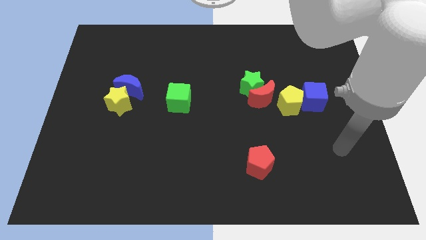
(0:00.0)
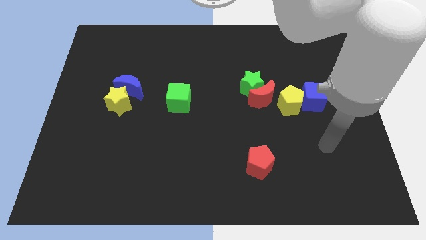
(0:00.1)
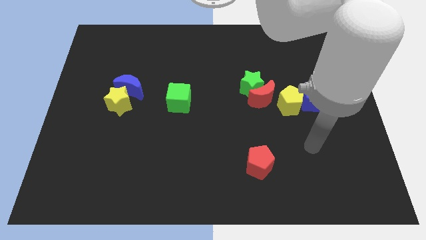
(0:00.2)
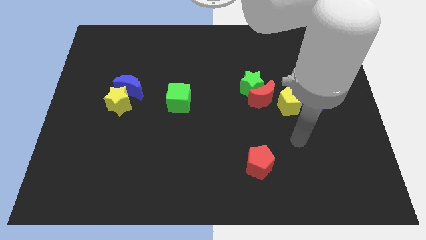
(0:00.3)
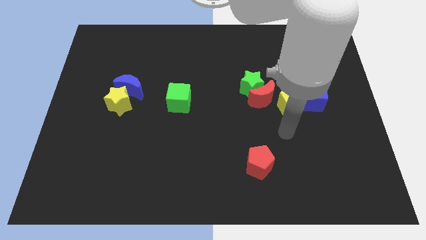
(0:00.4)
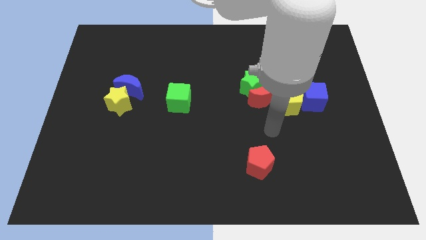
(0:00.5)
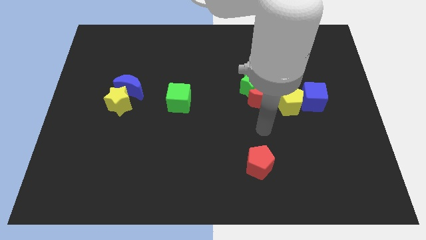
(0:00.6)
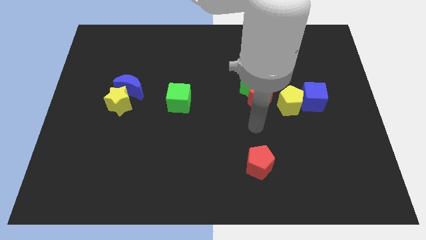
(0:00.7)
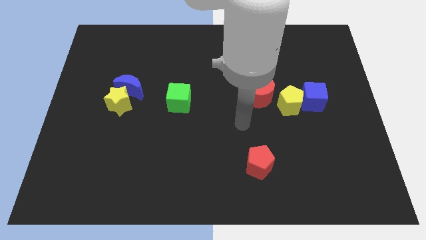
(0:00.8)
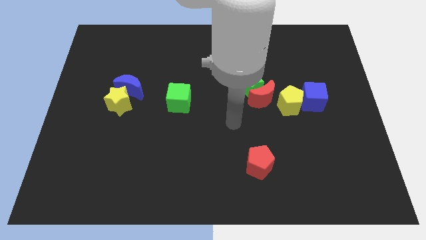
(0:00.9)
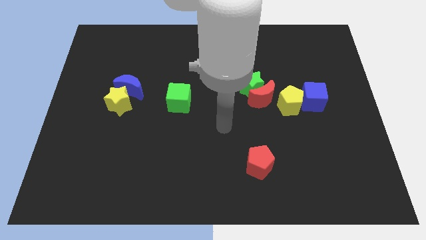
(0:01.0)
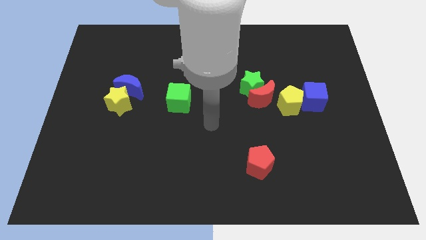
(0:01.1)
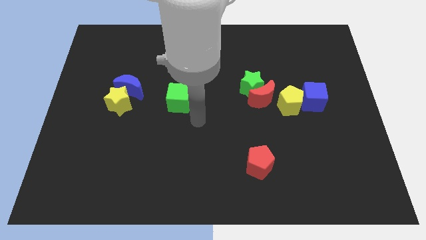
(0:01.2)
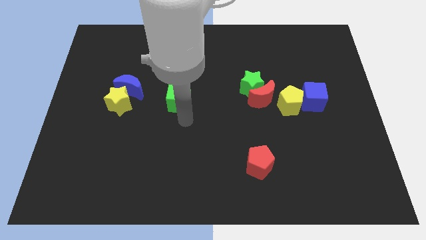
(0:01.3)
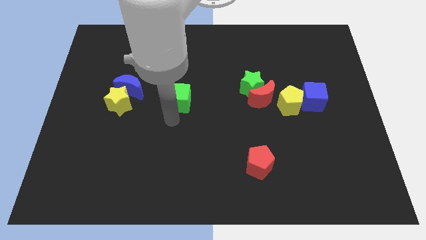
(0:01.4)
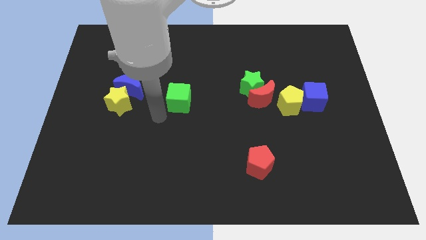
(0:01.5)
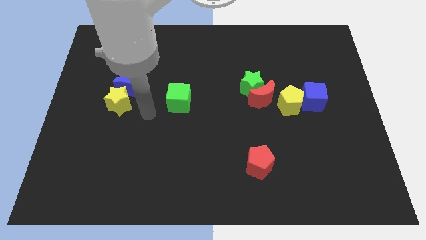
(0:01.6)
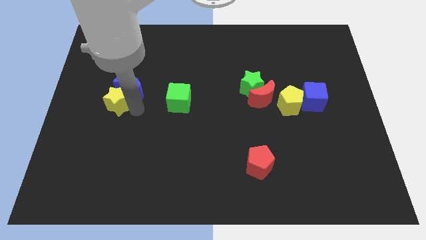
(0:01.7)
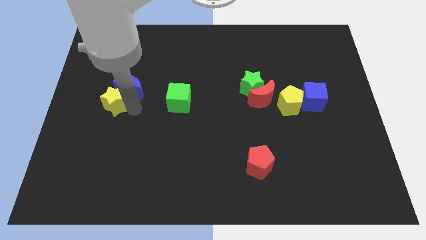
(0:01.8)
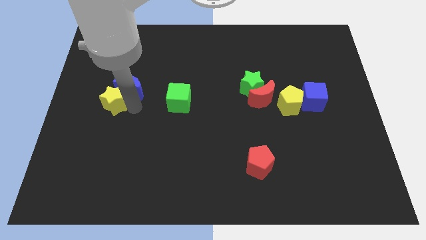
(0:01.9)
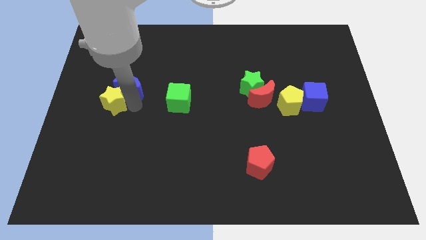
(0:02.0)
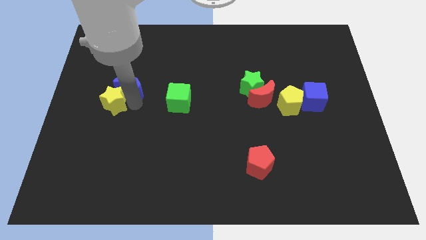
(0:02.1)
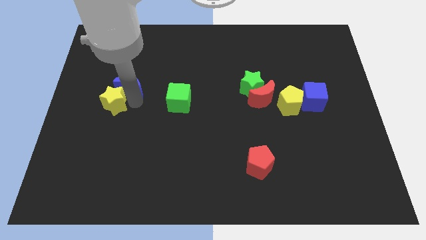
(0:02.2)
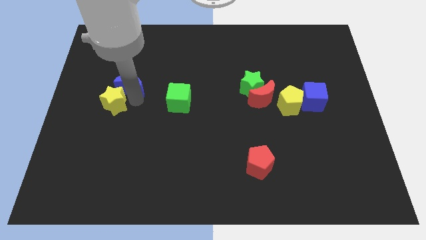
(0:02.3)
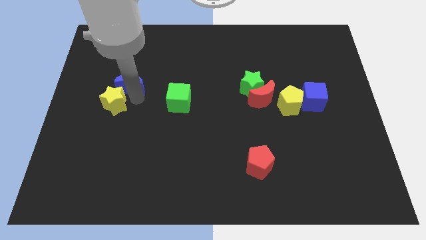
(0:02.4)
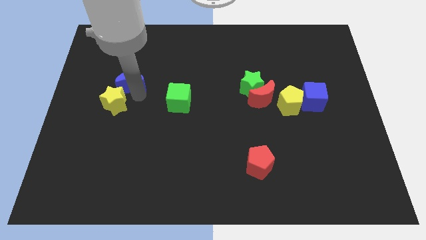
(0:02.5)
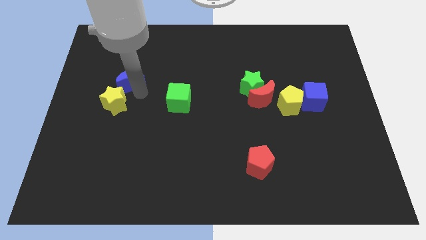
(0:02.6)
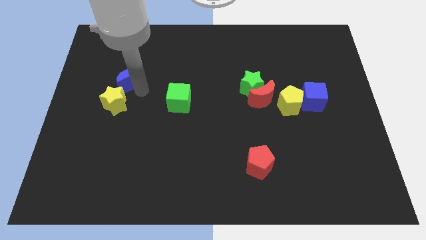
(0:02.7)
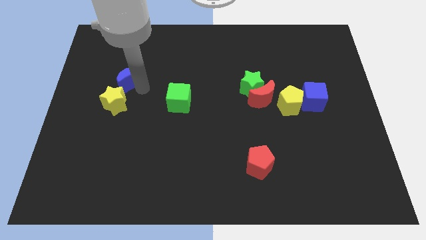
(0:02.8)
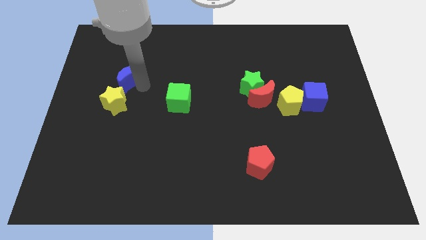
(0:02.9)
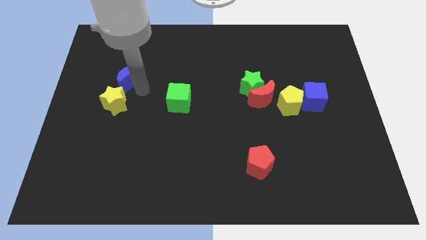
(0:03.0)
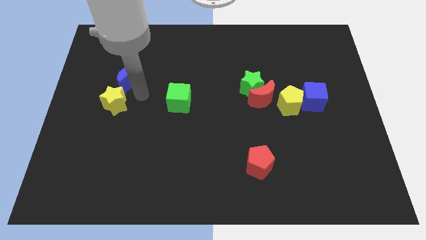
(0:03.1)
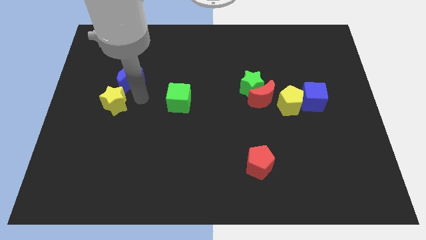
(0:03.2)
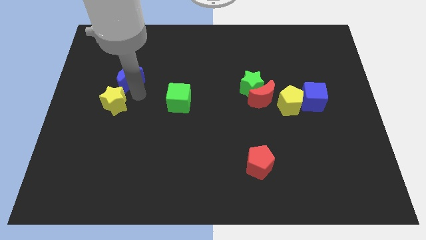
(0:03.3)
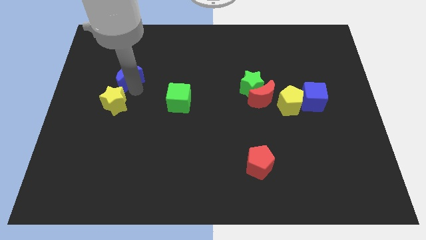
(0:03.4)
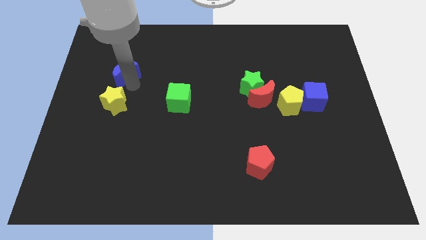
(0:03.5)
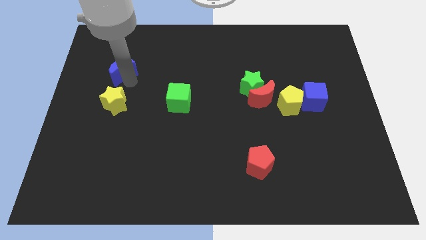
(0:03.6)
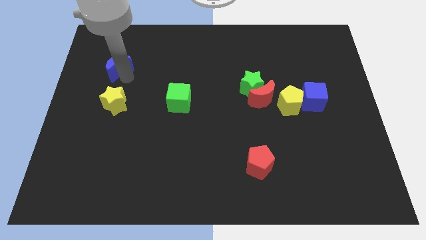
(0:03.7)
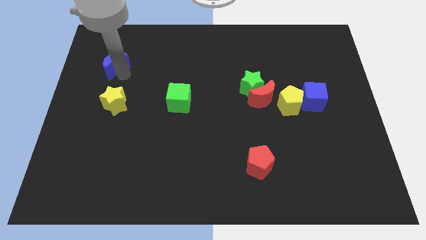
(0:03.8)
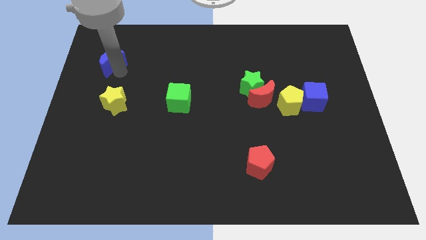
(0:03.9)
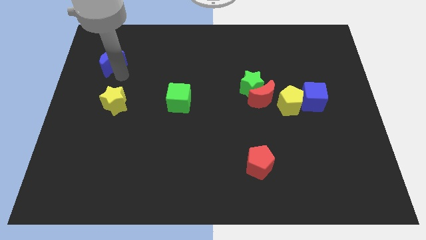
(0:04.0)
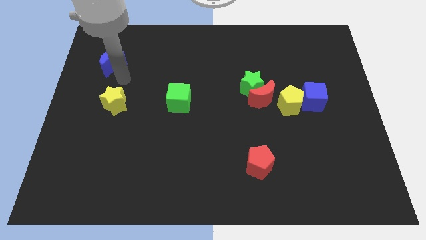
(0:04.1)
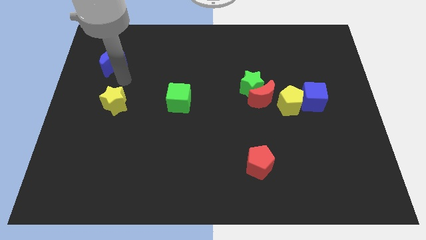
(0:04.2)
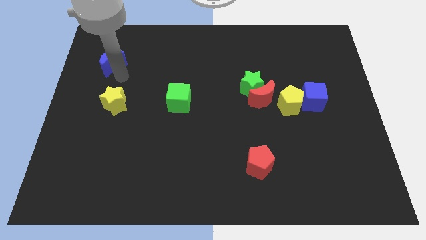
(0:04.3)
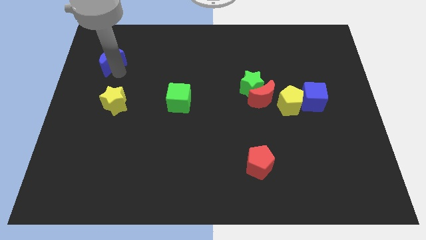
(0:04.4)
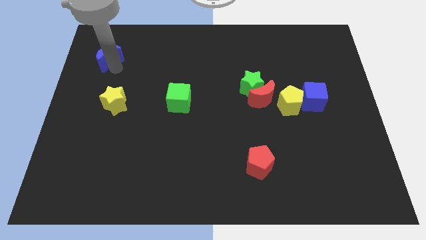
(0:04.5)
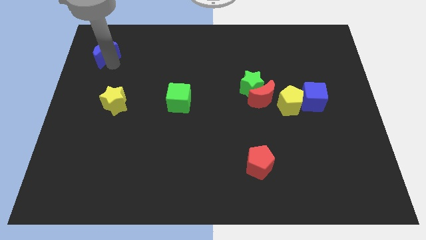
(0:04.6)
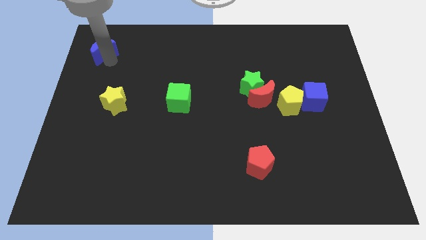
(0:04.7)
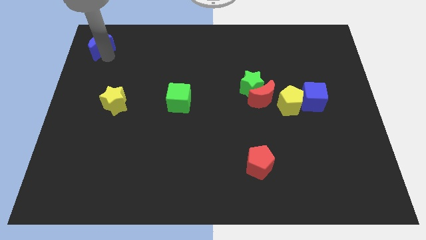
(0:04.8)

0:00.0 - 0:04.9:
put the blue moon to the top left of the board

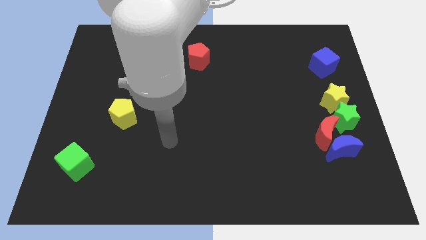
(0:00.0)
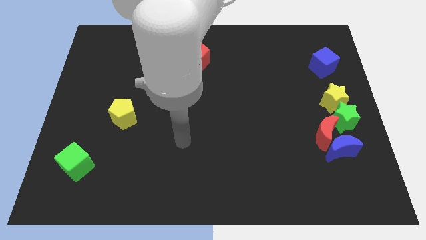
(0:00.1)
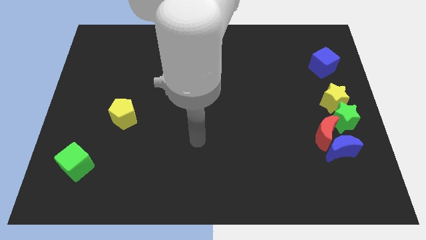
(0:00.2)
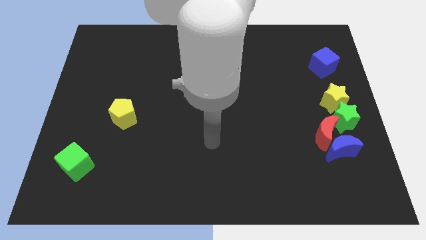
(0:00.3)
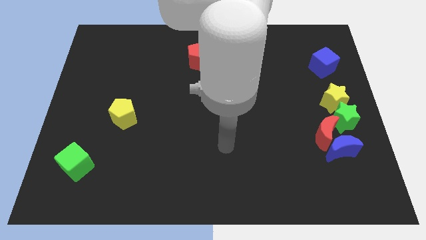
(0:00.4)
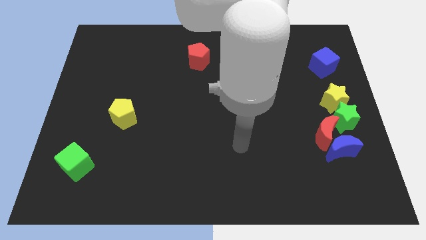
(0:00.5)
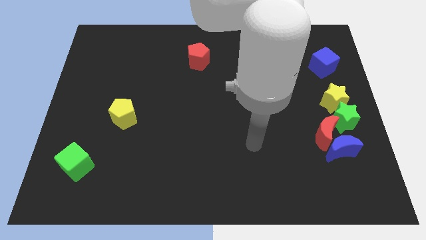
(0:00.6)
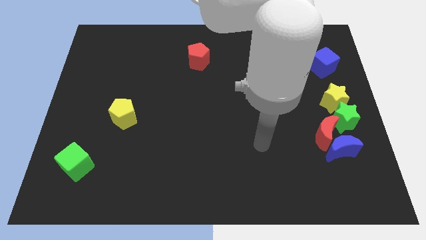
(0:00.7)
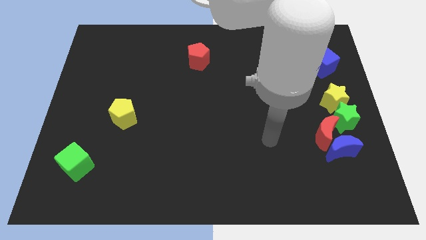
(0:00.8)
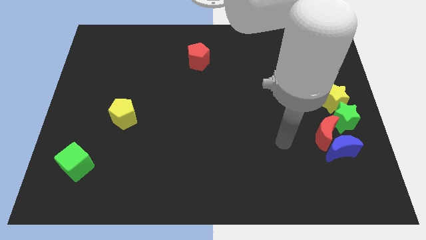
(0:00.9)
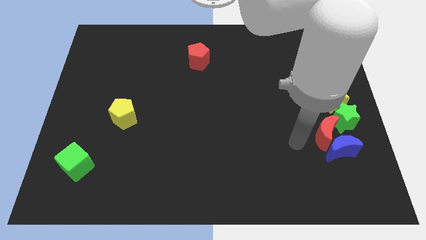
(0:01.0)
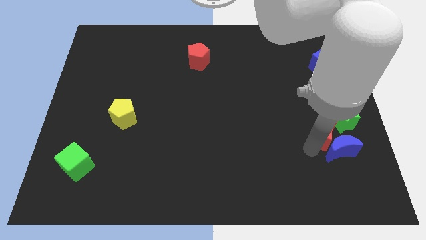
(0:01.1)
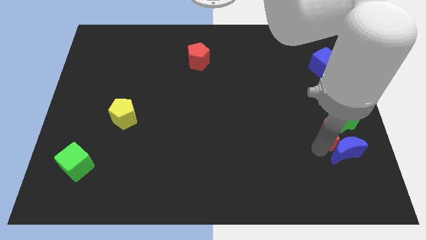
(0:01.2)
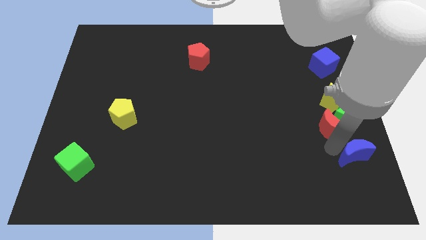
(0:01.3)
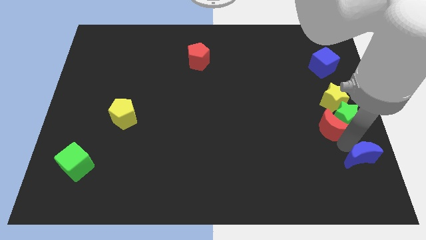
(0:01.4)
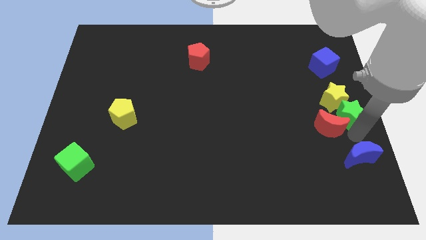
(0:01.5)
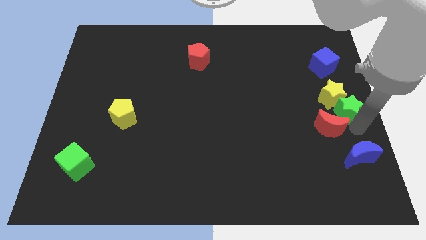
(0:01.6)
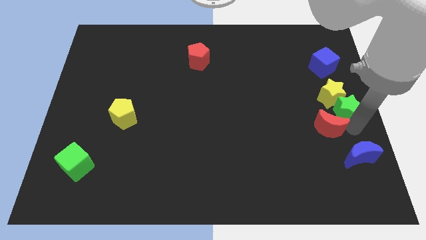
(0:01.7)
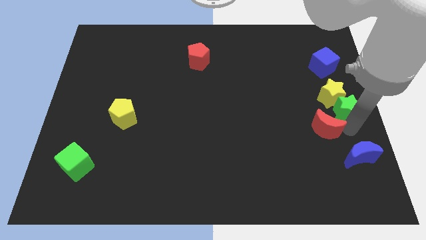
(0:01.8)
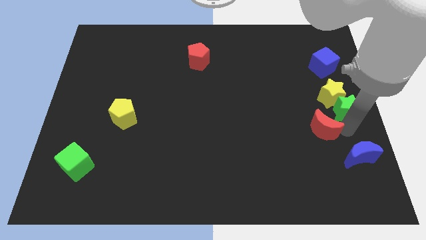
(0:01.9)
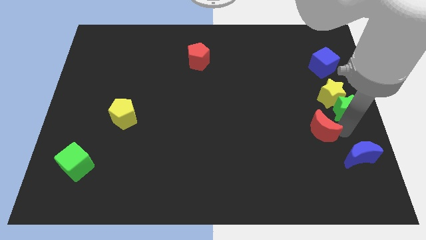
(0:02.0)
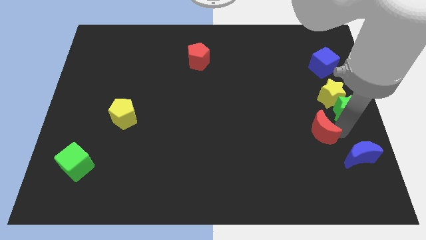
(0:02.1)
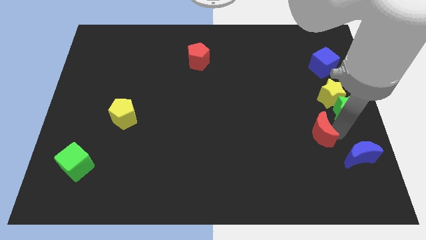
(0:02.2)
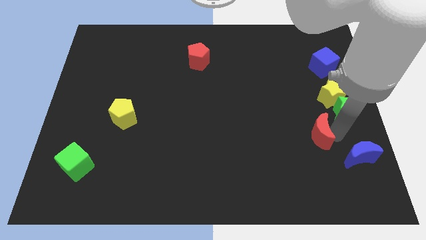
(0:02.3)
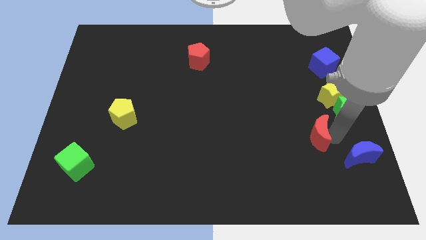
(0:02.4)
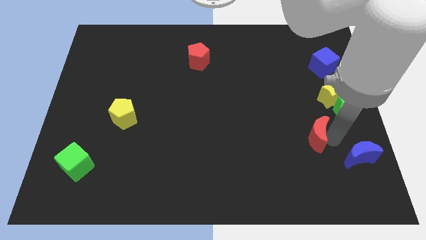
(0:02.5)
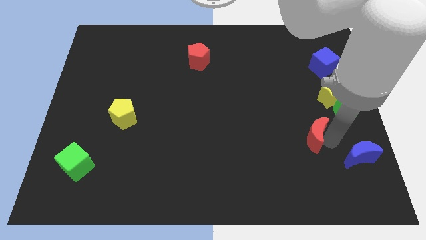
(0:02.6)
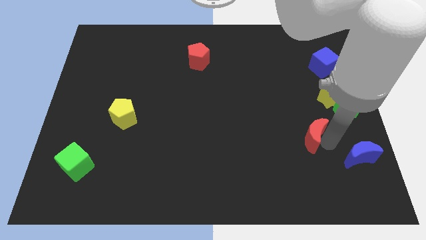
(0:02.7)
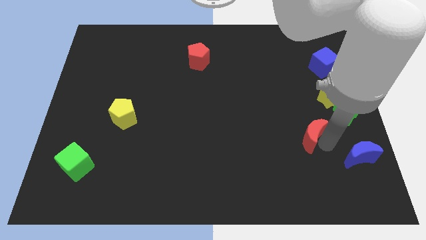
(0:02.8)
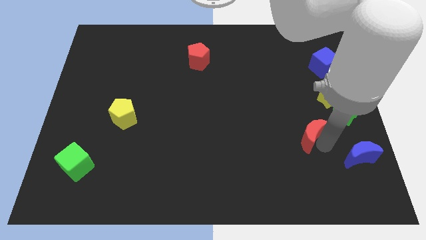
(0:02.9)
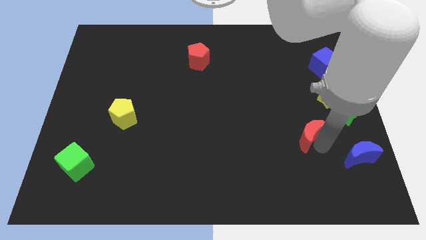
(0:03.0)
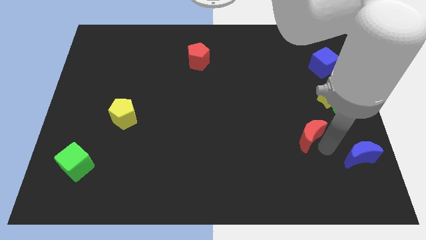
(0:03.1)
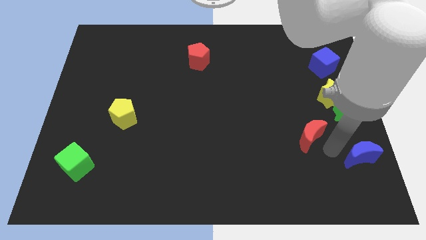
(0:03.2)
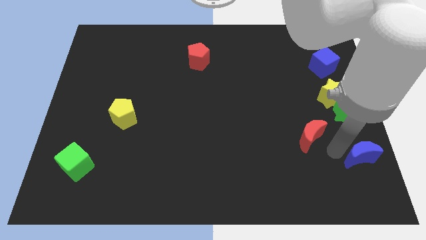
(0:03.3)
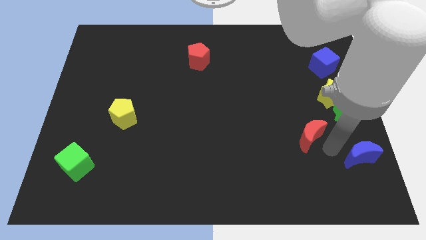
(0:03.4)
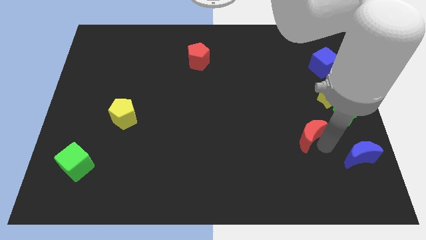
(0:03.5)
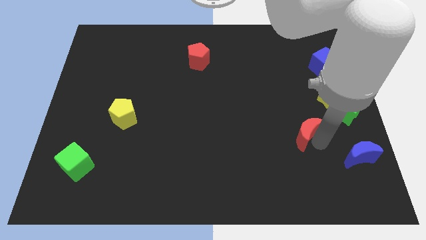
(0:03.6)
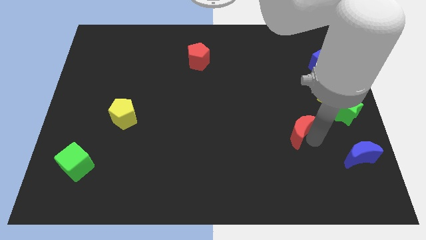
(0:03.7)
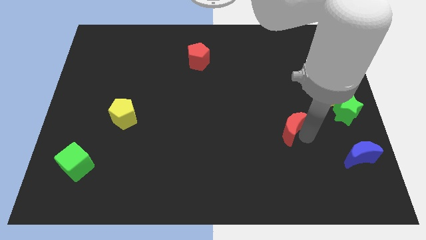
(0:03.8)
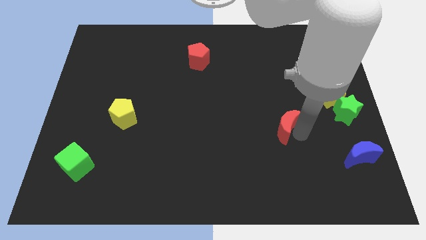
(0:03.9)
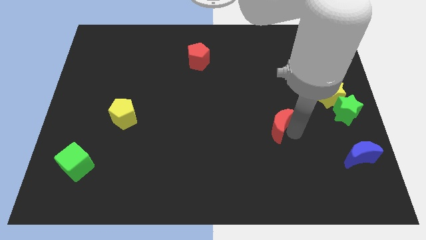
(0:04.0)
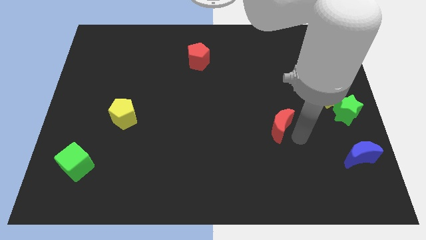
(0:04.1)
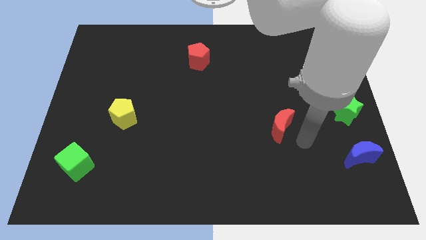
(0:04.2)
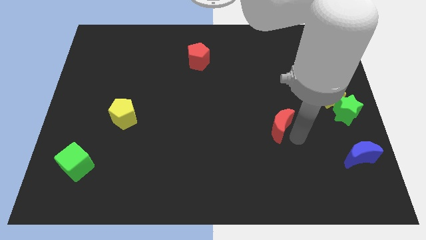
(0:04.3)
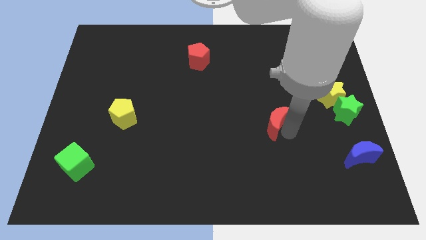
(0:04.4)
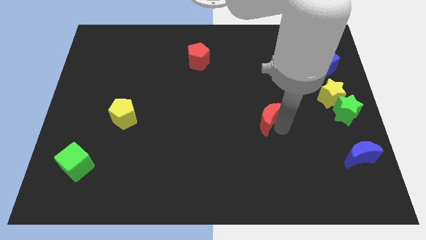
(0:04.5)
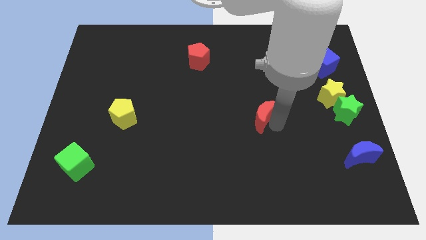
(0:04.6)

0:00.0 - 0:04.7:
push the red moon to the center of the board
